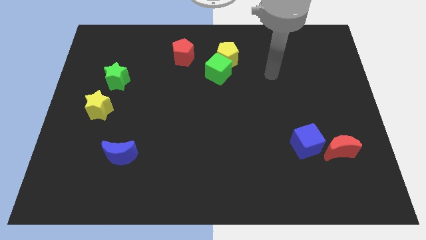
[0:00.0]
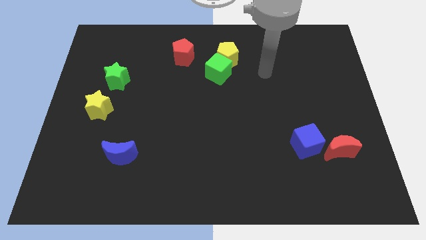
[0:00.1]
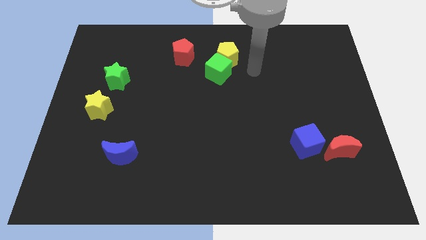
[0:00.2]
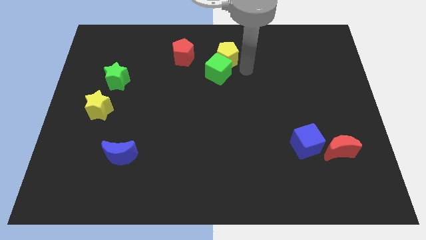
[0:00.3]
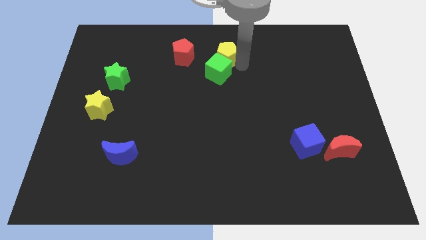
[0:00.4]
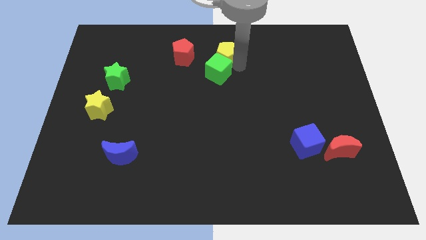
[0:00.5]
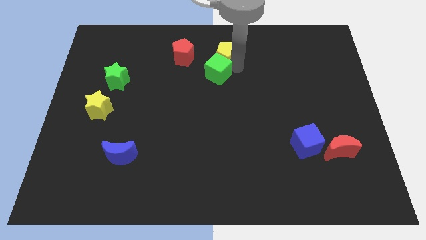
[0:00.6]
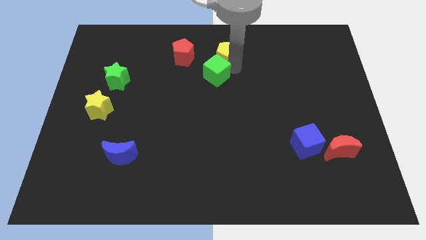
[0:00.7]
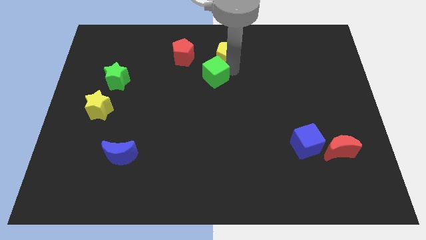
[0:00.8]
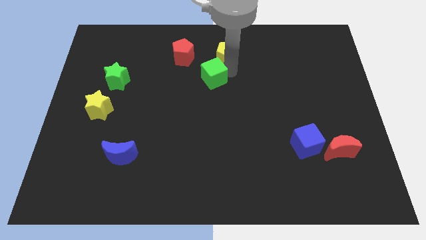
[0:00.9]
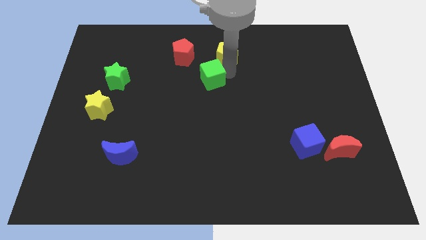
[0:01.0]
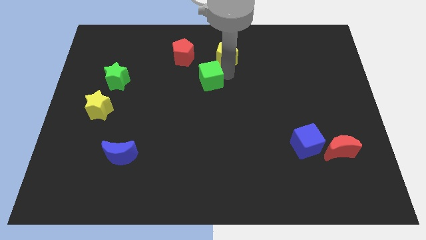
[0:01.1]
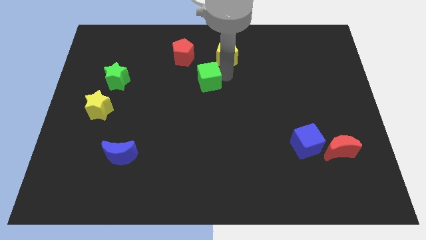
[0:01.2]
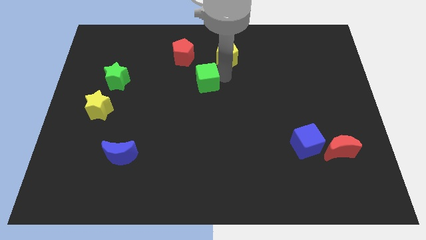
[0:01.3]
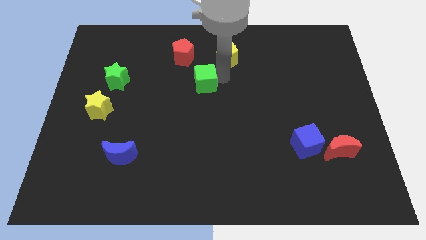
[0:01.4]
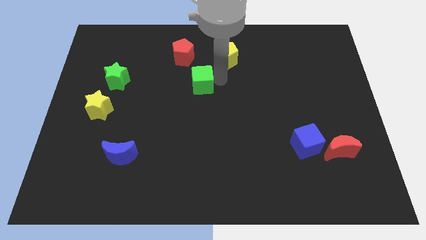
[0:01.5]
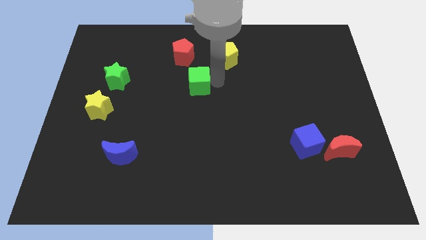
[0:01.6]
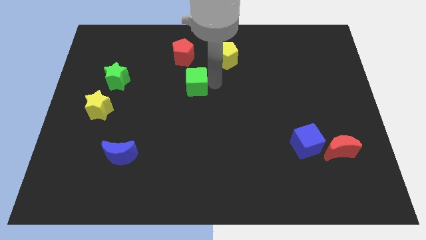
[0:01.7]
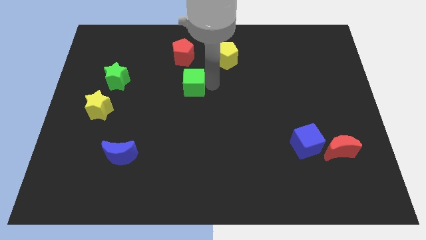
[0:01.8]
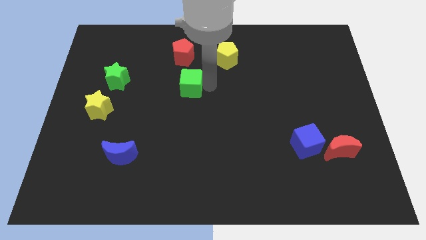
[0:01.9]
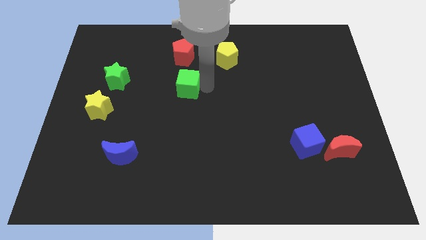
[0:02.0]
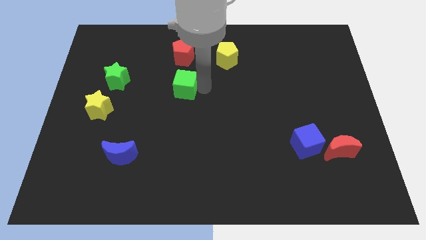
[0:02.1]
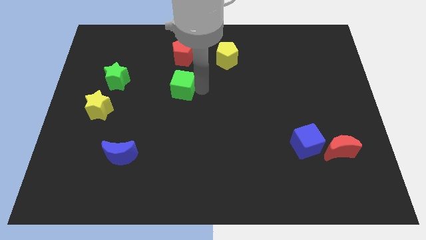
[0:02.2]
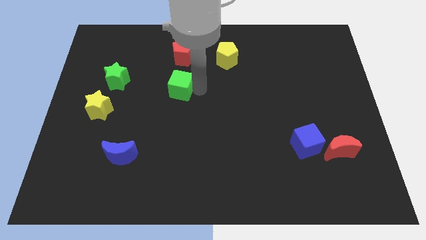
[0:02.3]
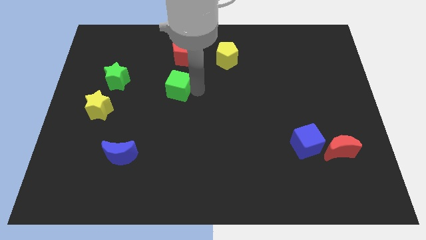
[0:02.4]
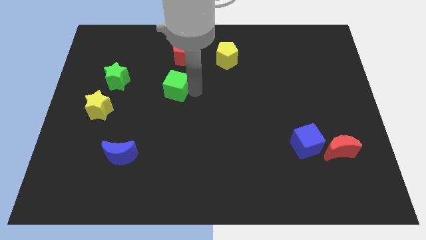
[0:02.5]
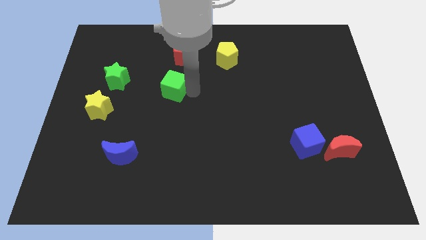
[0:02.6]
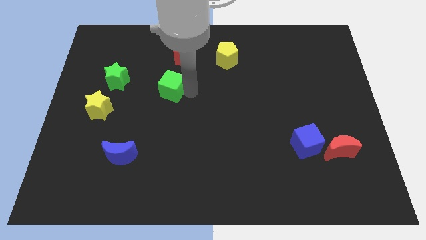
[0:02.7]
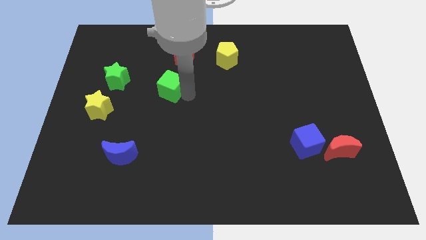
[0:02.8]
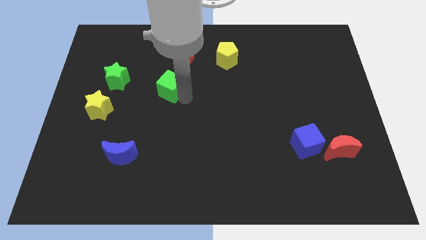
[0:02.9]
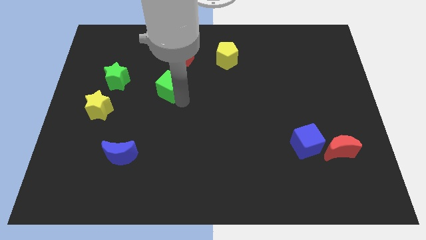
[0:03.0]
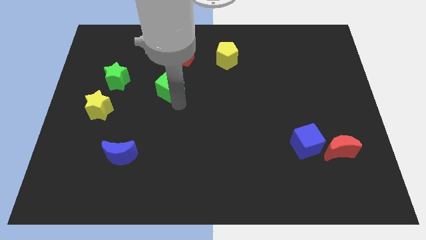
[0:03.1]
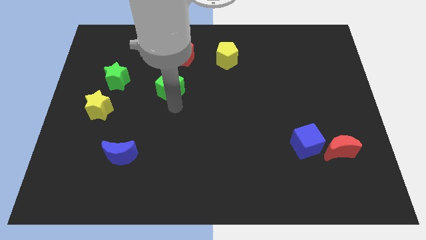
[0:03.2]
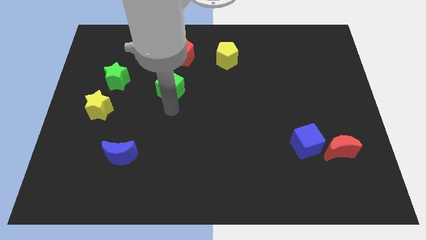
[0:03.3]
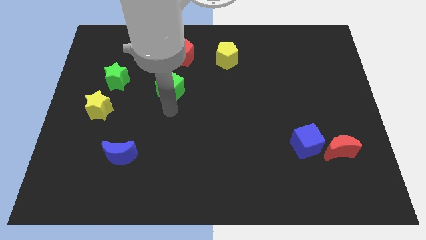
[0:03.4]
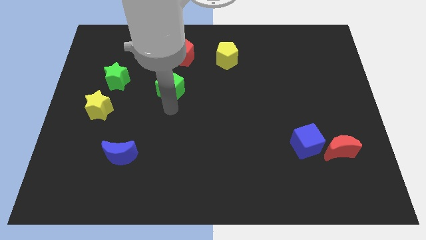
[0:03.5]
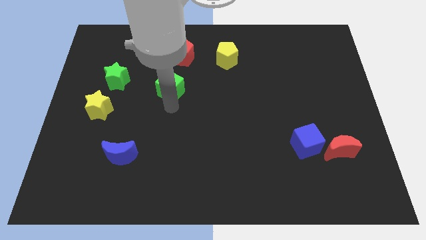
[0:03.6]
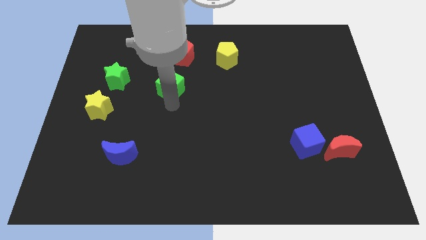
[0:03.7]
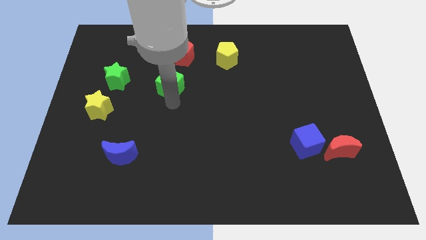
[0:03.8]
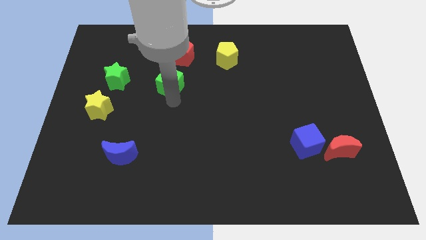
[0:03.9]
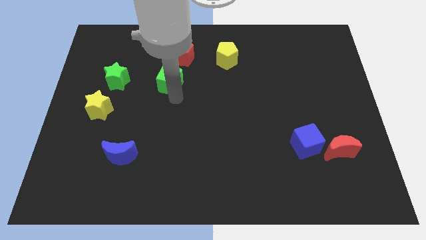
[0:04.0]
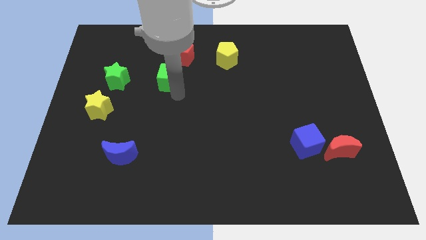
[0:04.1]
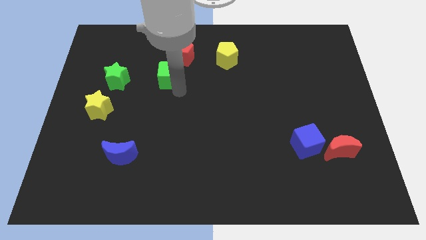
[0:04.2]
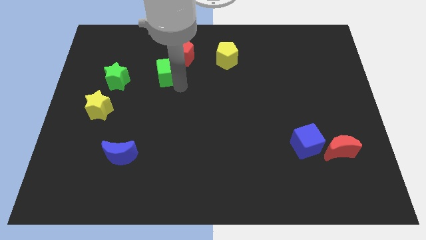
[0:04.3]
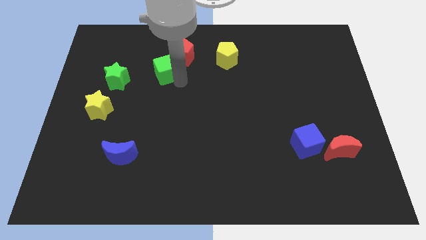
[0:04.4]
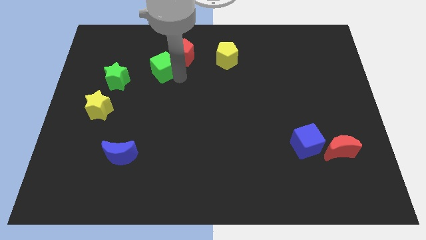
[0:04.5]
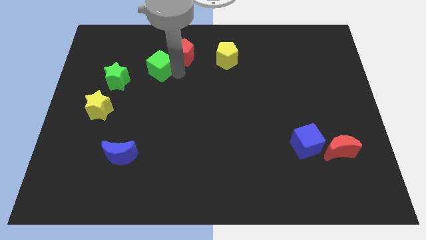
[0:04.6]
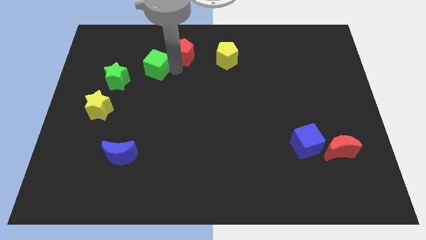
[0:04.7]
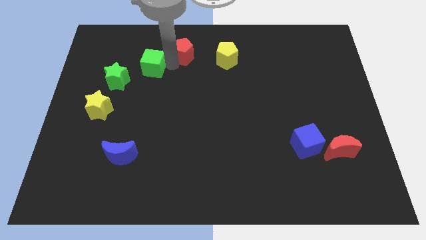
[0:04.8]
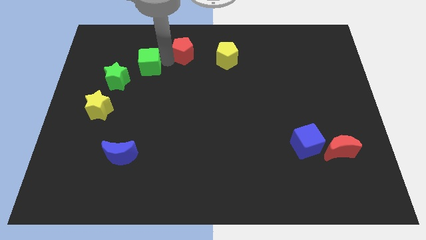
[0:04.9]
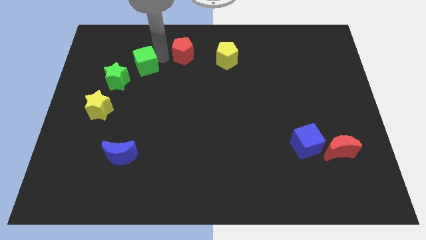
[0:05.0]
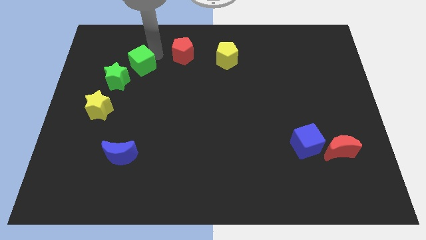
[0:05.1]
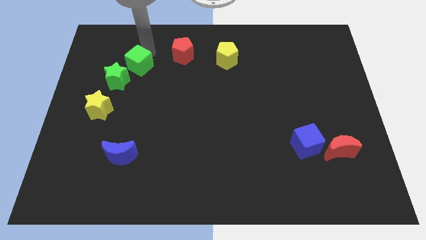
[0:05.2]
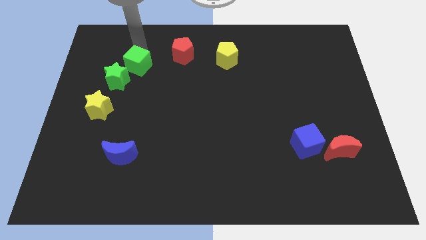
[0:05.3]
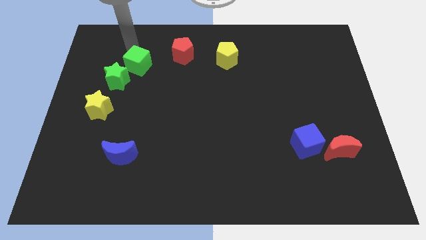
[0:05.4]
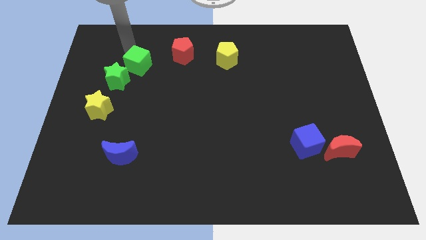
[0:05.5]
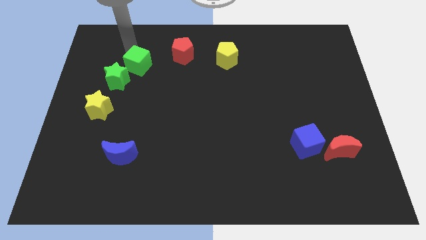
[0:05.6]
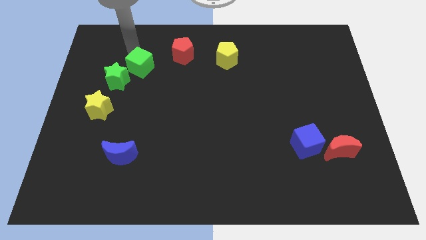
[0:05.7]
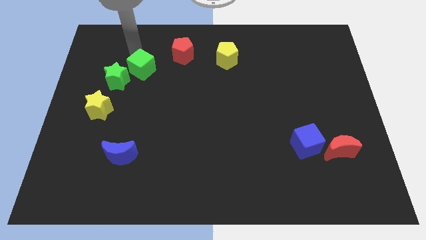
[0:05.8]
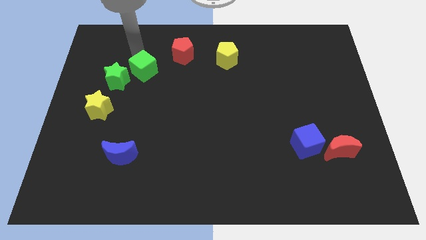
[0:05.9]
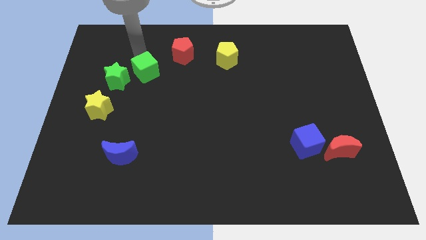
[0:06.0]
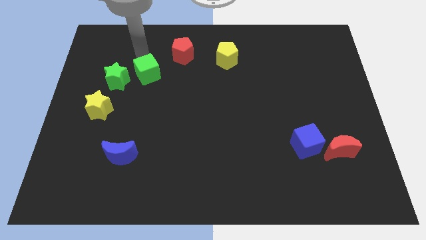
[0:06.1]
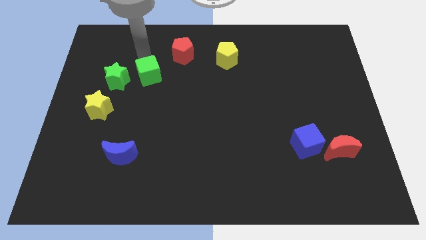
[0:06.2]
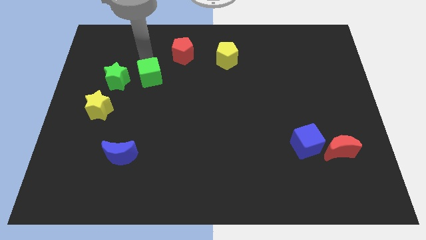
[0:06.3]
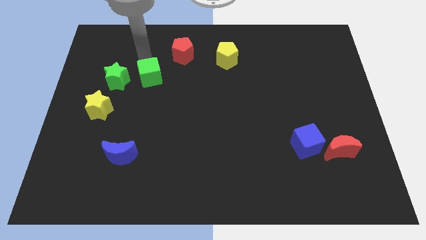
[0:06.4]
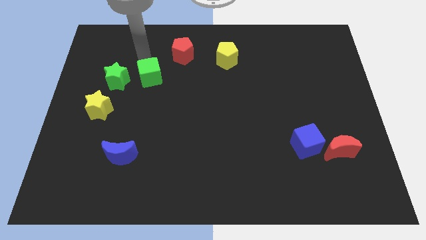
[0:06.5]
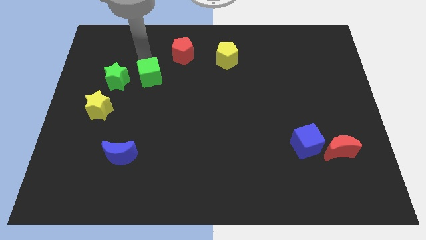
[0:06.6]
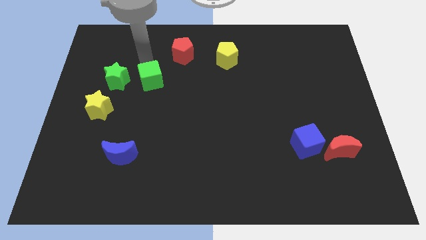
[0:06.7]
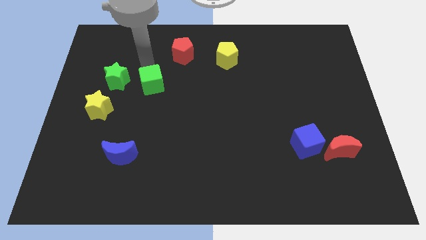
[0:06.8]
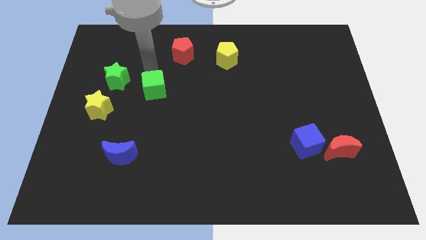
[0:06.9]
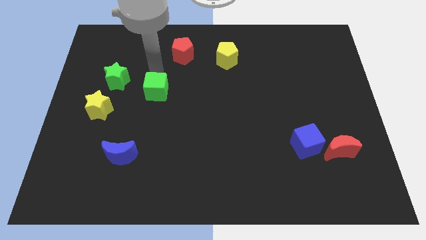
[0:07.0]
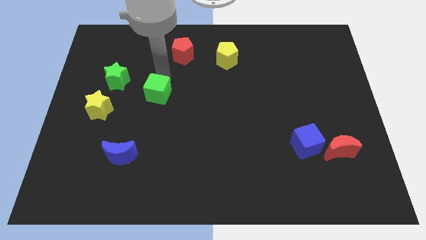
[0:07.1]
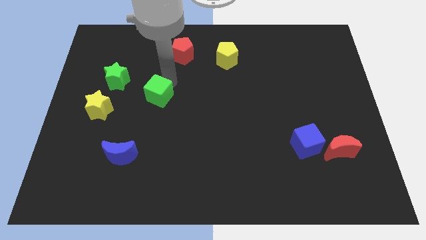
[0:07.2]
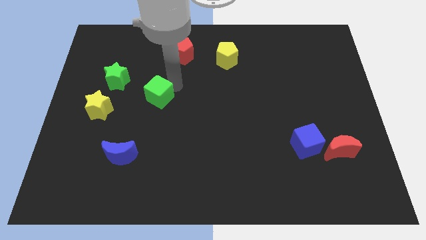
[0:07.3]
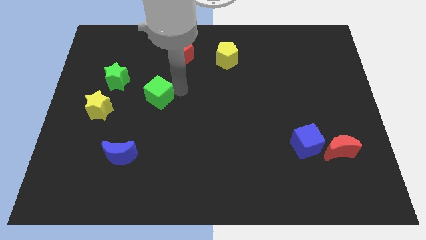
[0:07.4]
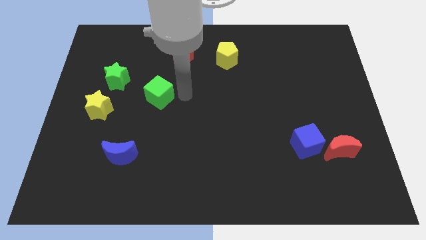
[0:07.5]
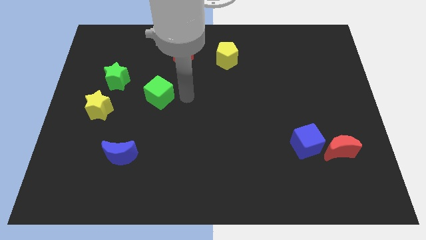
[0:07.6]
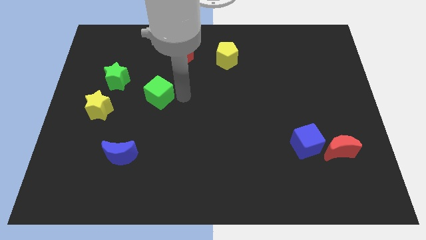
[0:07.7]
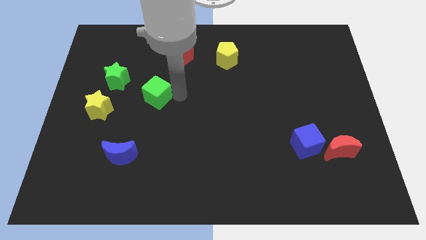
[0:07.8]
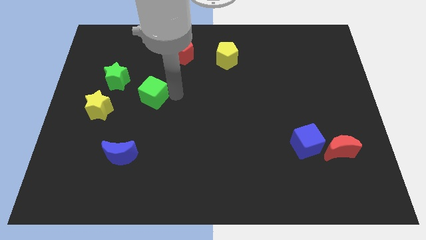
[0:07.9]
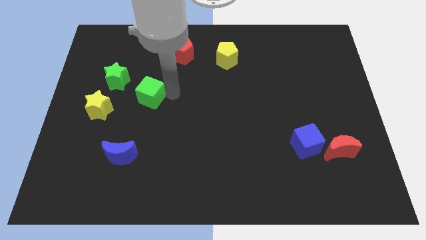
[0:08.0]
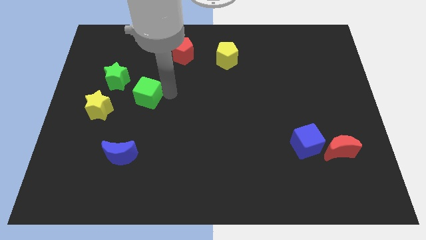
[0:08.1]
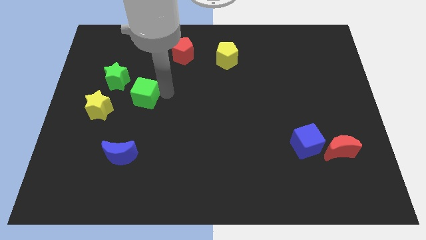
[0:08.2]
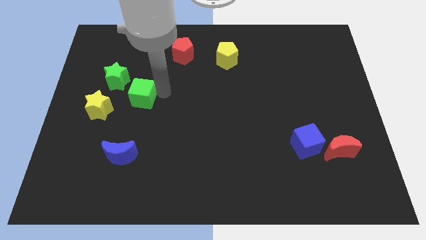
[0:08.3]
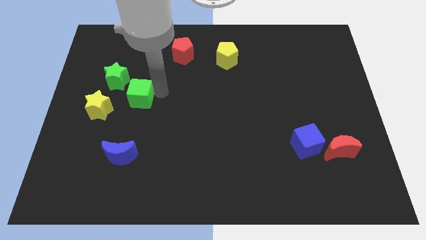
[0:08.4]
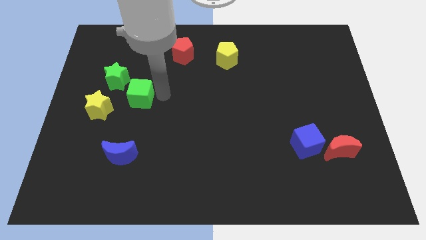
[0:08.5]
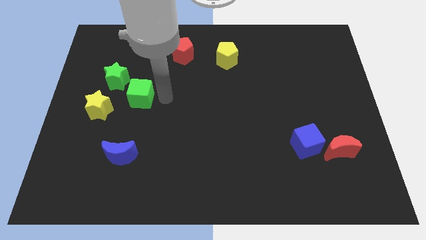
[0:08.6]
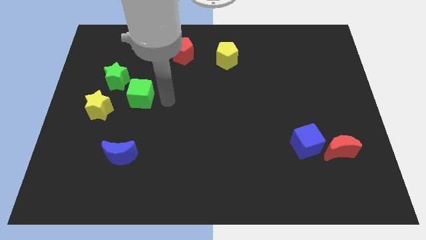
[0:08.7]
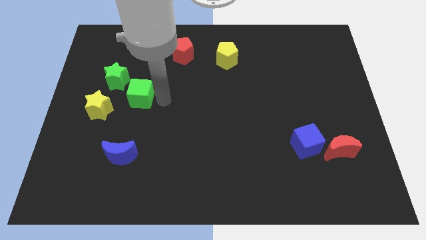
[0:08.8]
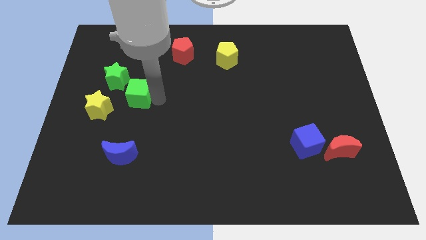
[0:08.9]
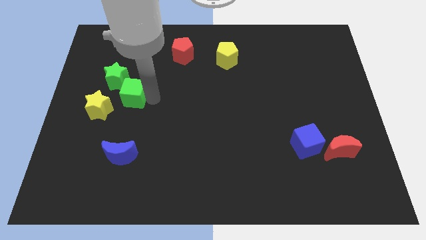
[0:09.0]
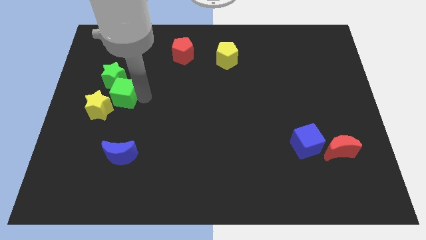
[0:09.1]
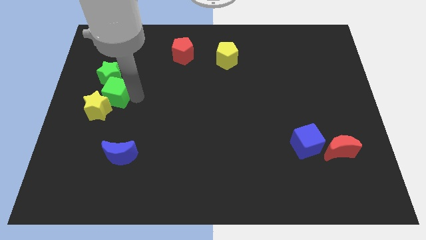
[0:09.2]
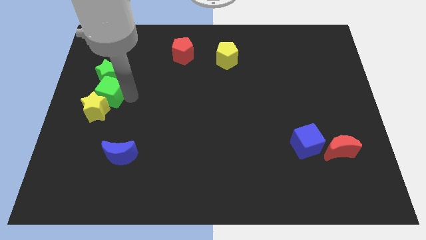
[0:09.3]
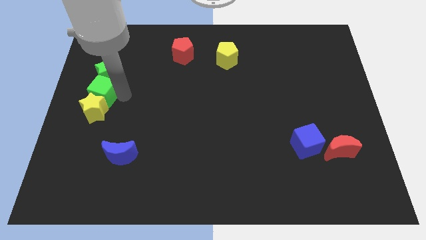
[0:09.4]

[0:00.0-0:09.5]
put the green cube to the left side of the board
